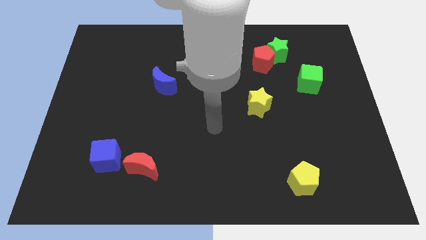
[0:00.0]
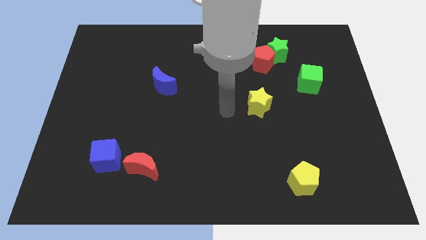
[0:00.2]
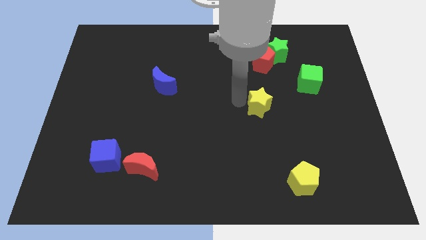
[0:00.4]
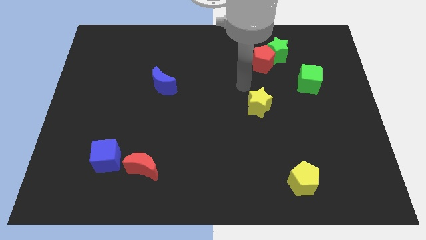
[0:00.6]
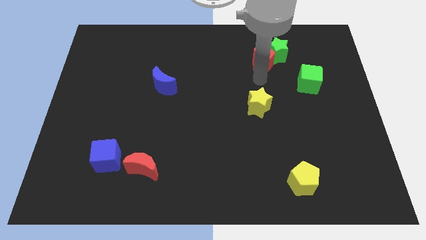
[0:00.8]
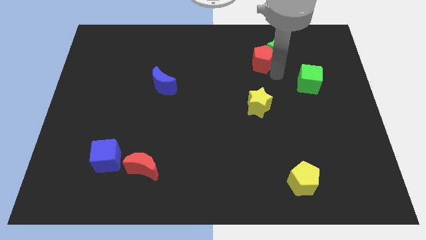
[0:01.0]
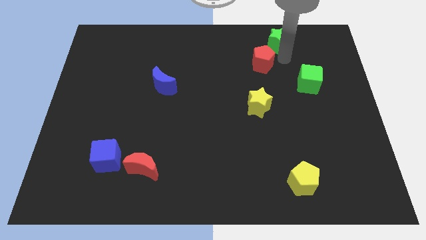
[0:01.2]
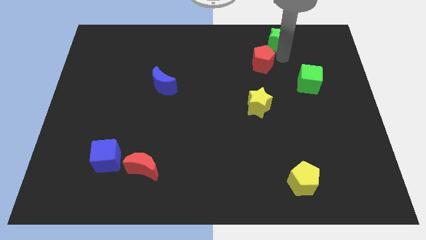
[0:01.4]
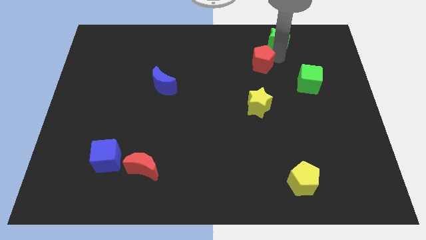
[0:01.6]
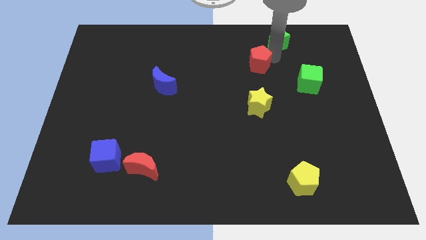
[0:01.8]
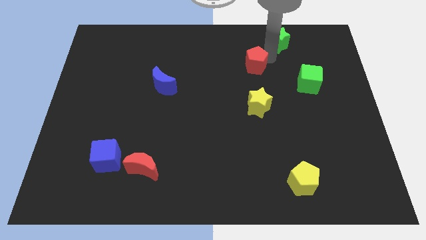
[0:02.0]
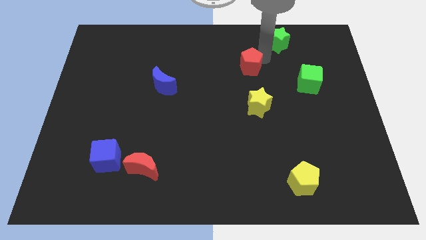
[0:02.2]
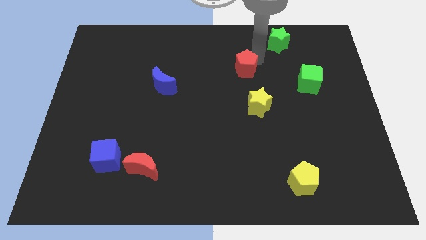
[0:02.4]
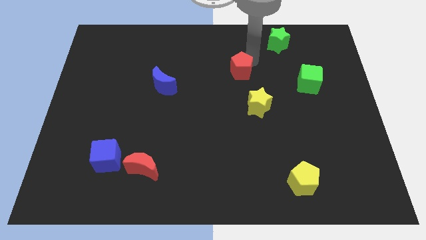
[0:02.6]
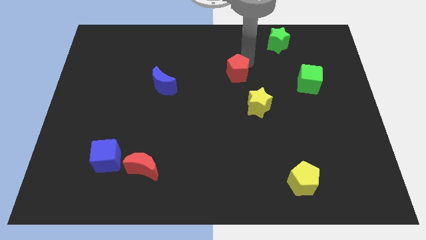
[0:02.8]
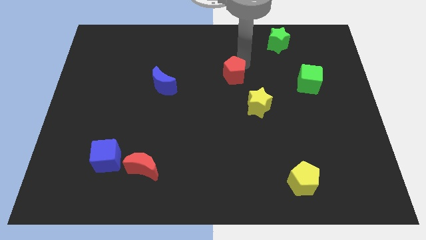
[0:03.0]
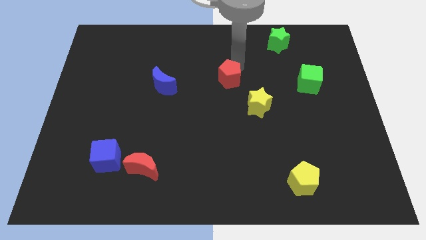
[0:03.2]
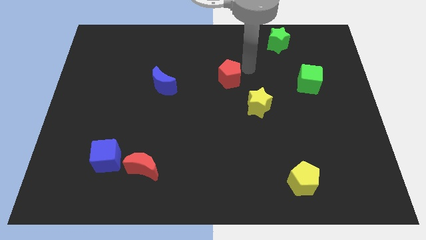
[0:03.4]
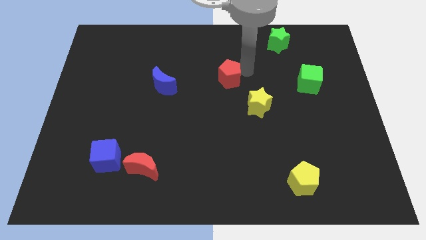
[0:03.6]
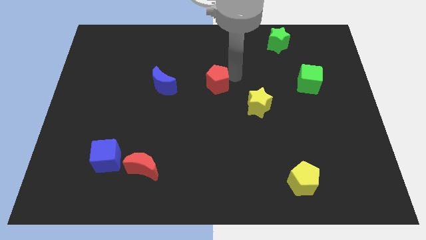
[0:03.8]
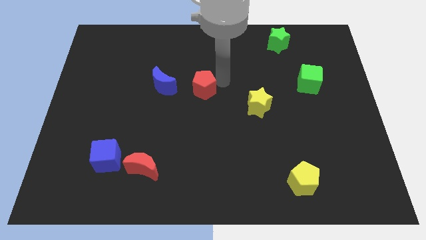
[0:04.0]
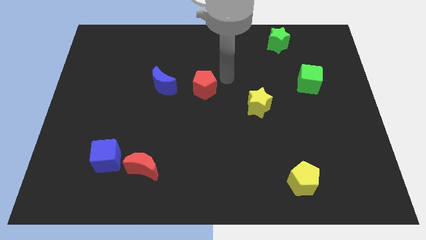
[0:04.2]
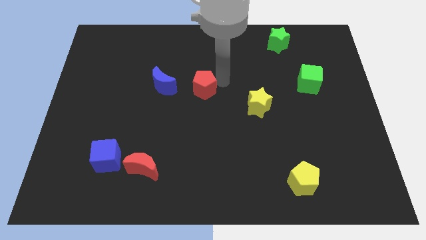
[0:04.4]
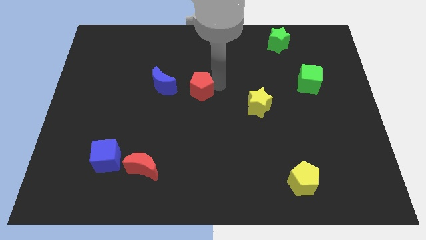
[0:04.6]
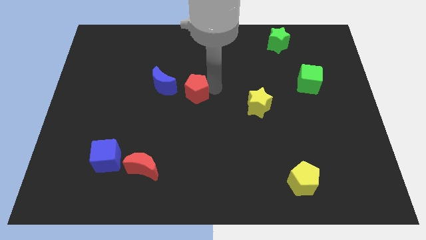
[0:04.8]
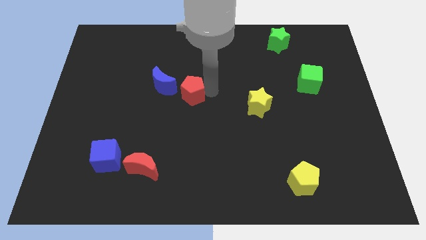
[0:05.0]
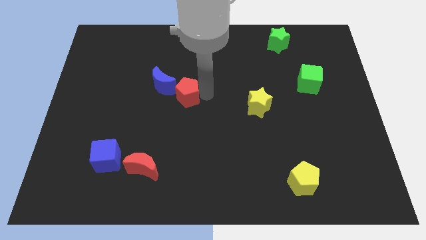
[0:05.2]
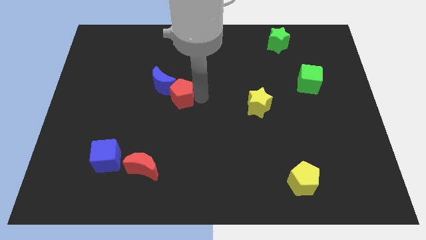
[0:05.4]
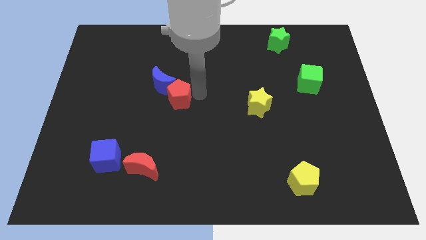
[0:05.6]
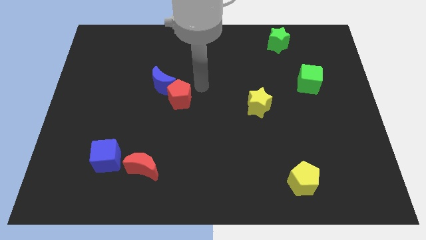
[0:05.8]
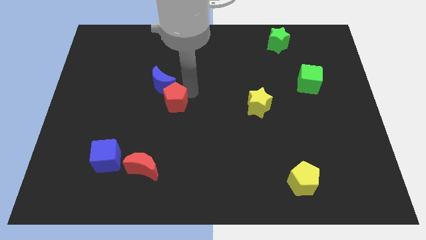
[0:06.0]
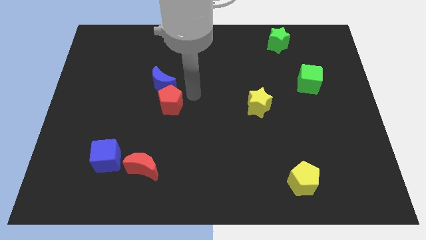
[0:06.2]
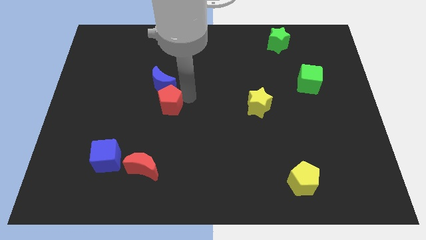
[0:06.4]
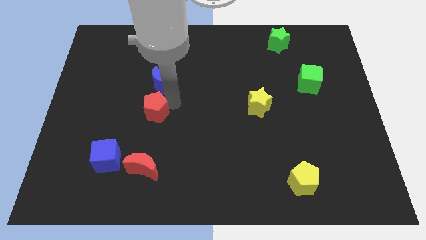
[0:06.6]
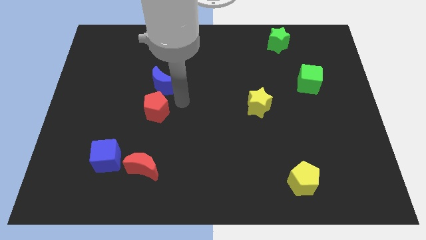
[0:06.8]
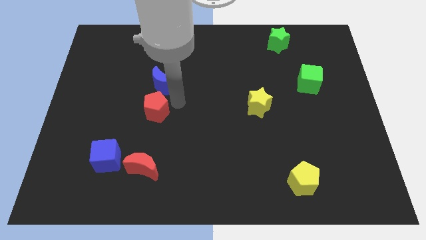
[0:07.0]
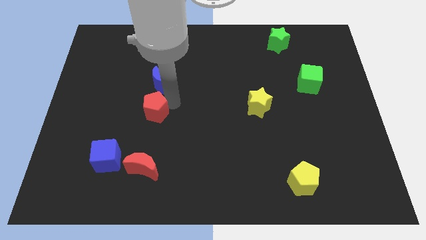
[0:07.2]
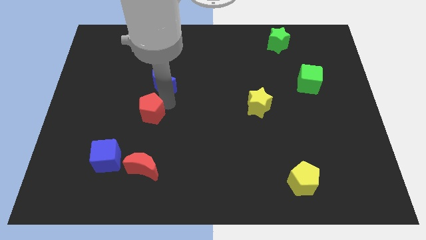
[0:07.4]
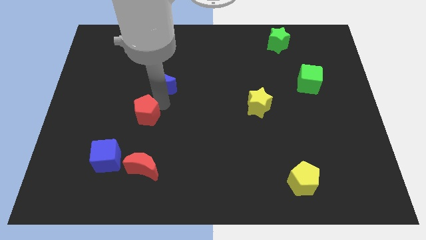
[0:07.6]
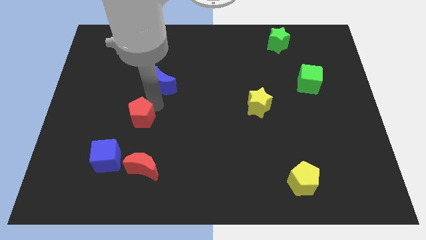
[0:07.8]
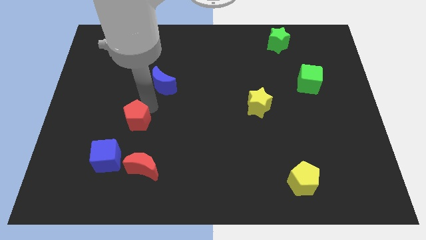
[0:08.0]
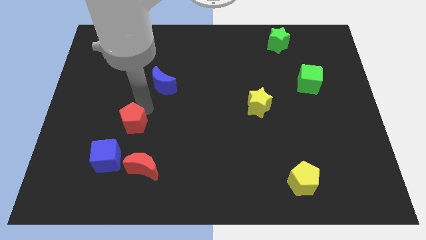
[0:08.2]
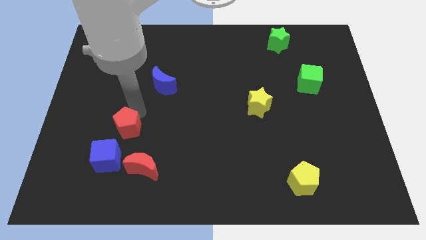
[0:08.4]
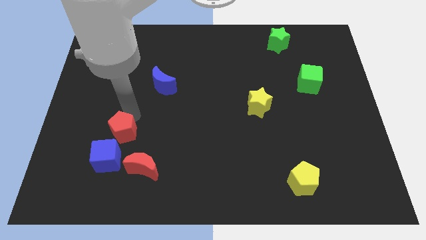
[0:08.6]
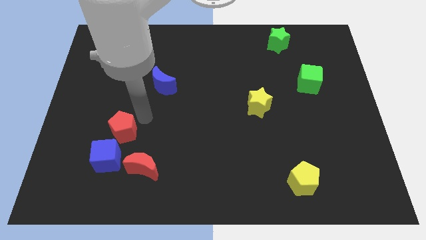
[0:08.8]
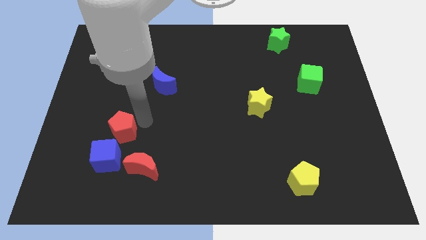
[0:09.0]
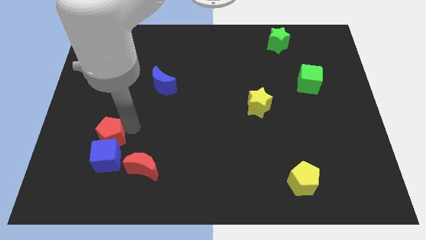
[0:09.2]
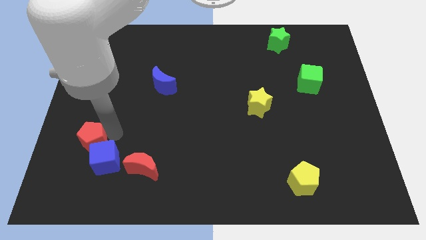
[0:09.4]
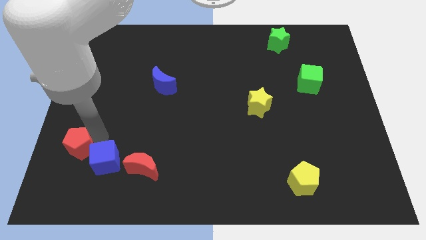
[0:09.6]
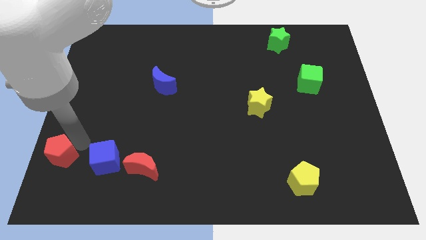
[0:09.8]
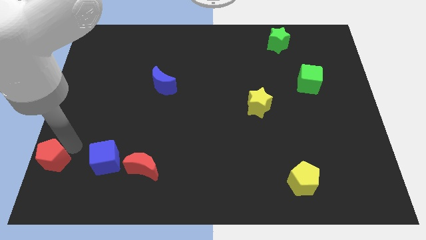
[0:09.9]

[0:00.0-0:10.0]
put the red pentagon to the bottom left of the board

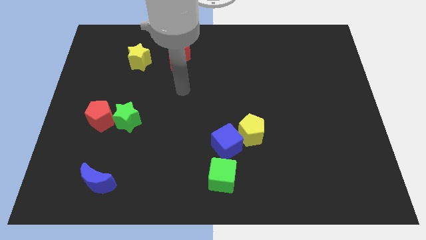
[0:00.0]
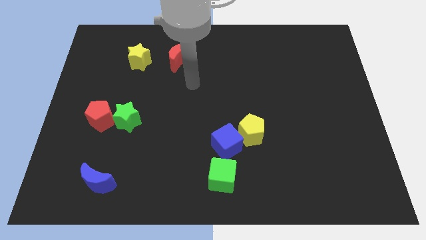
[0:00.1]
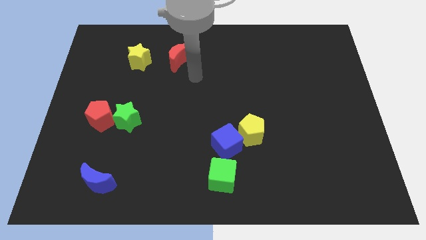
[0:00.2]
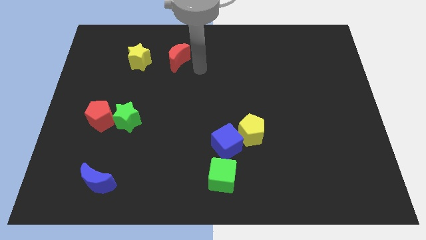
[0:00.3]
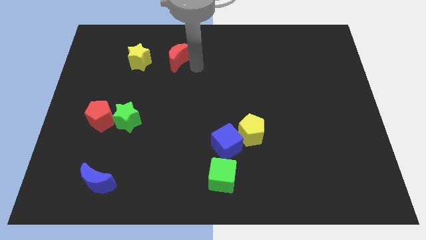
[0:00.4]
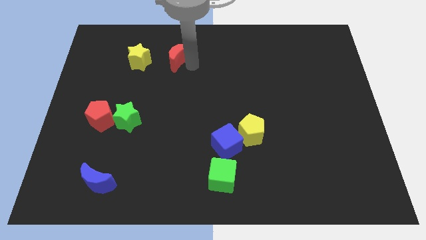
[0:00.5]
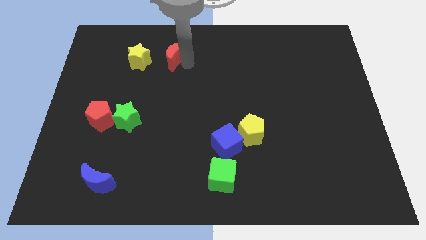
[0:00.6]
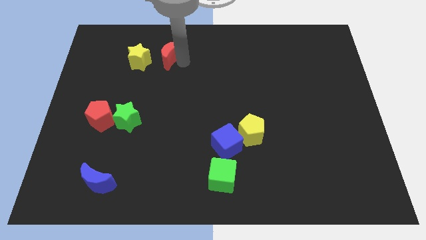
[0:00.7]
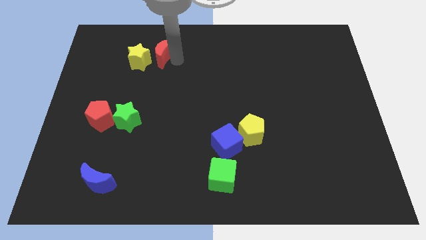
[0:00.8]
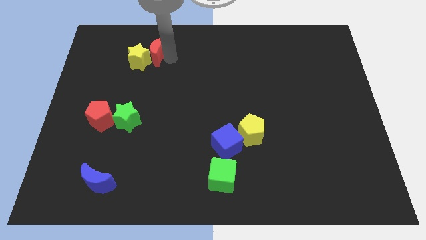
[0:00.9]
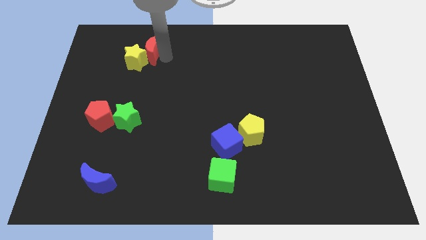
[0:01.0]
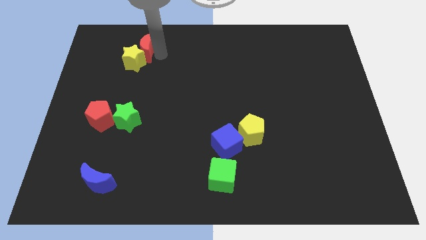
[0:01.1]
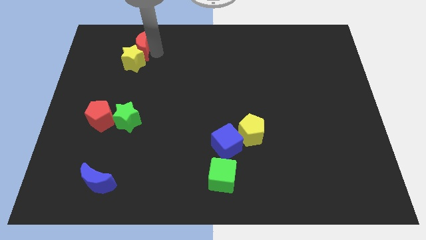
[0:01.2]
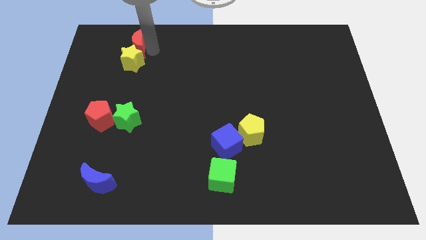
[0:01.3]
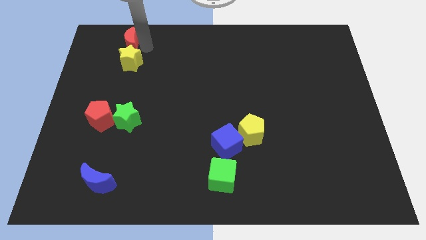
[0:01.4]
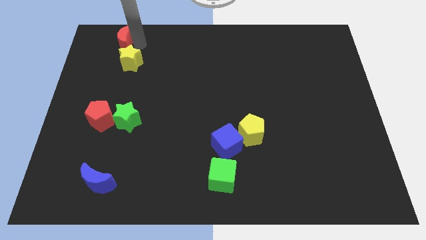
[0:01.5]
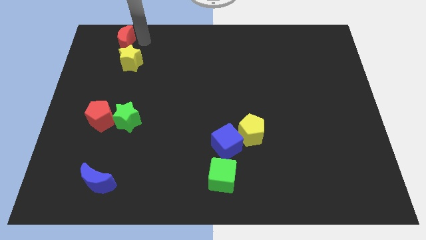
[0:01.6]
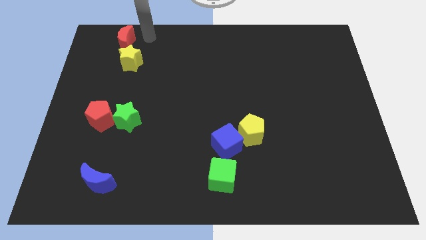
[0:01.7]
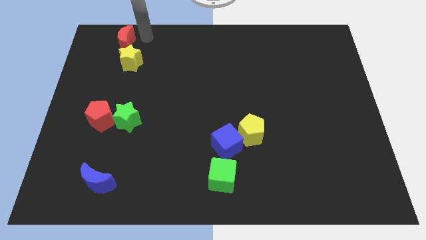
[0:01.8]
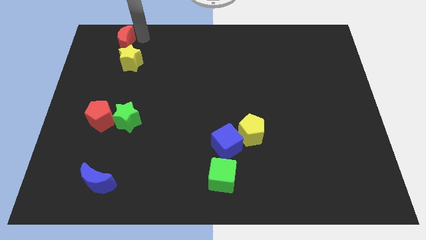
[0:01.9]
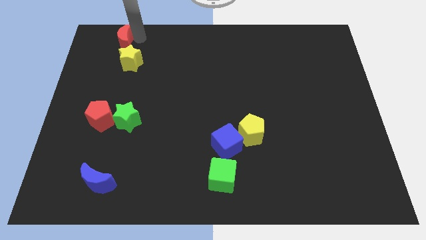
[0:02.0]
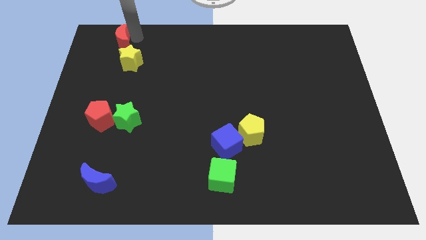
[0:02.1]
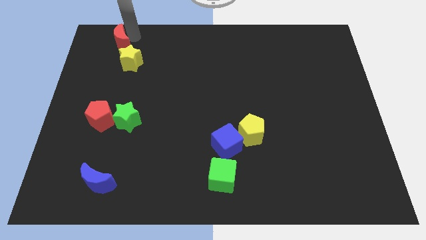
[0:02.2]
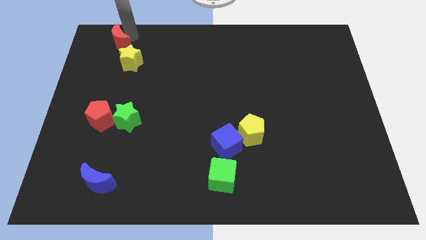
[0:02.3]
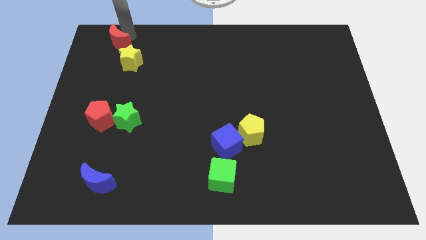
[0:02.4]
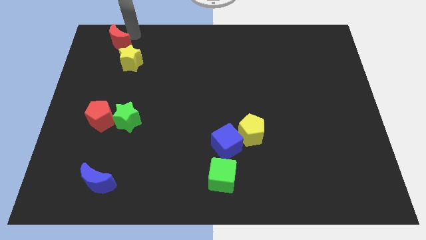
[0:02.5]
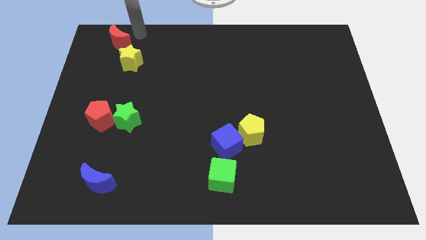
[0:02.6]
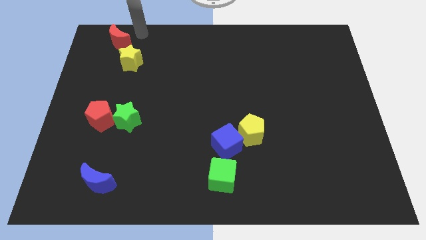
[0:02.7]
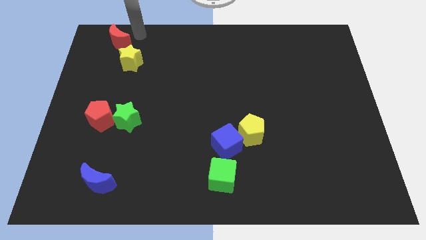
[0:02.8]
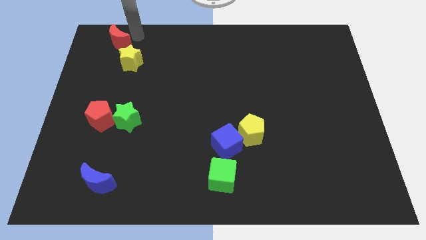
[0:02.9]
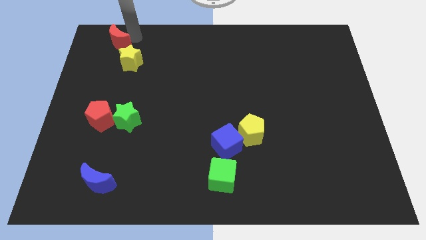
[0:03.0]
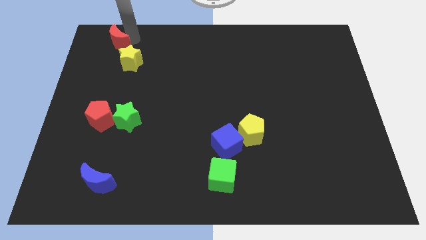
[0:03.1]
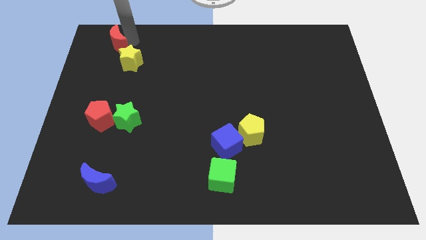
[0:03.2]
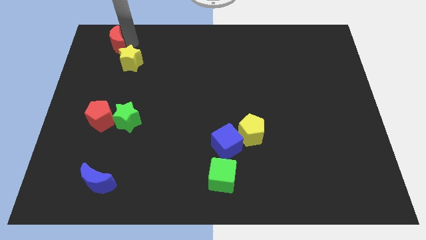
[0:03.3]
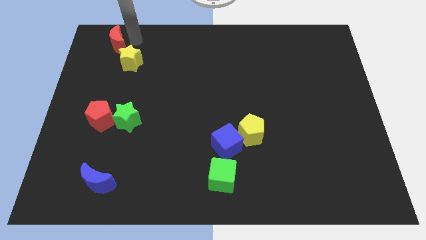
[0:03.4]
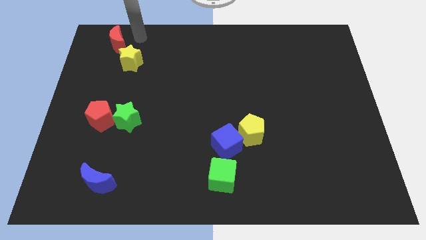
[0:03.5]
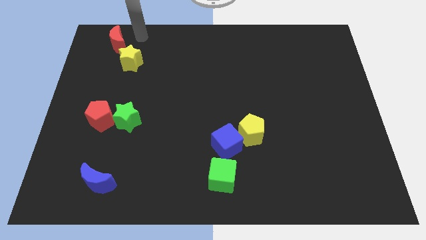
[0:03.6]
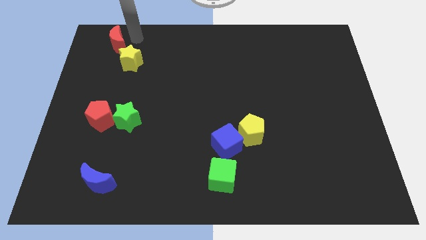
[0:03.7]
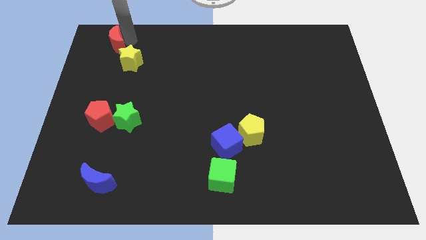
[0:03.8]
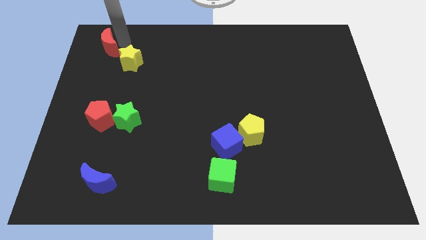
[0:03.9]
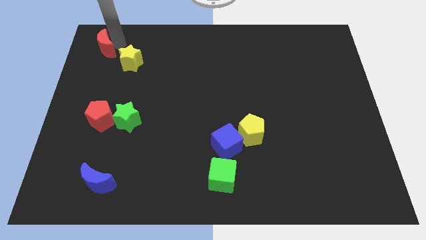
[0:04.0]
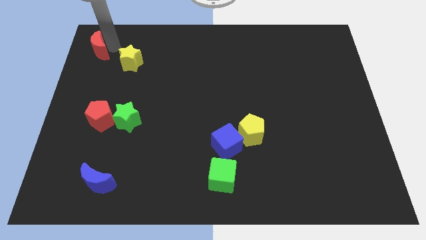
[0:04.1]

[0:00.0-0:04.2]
move the red moon to the upper left corner
